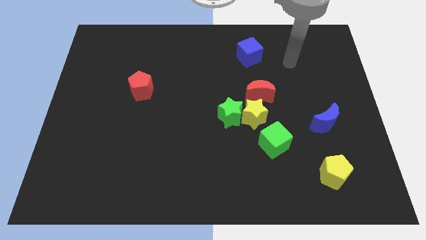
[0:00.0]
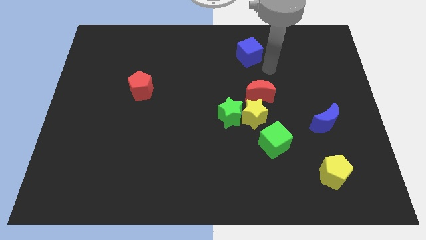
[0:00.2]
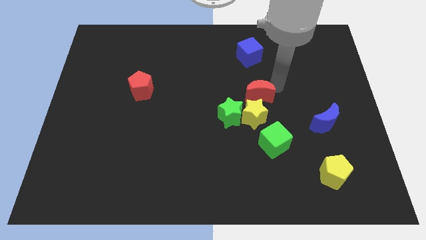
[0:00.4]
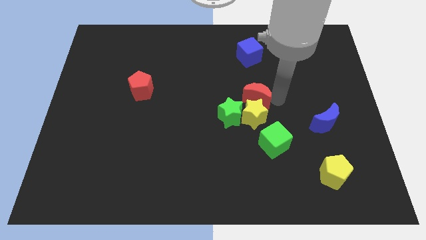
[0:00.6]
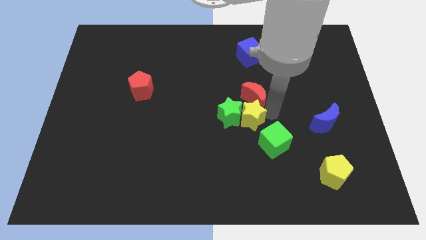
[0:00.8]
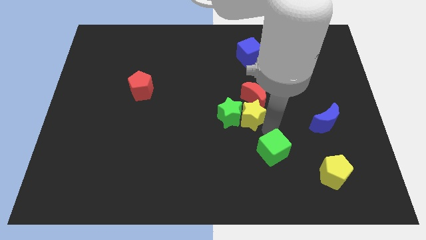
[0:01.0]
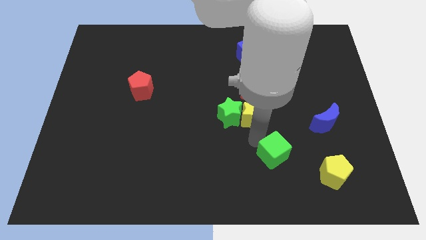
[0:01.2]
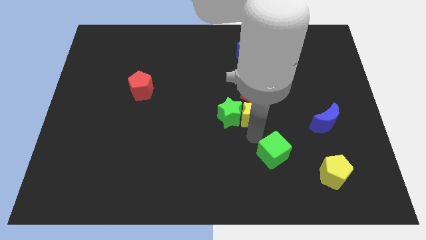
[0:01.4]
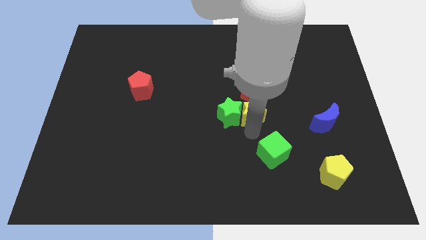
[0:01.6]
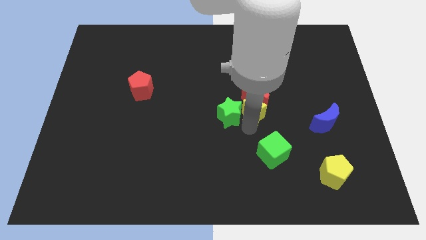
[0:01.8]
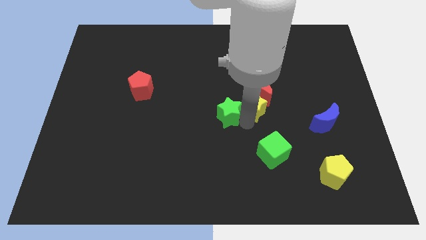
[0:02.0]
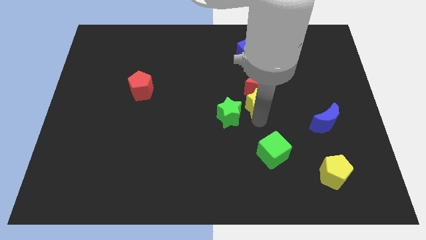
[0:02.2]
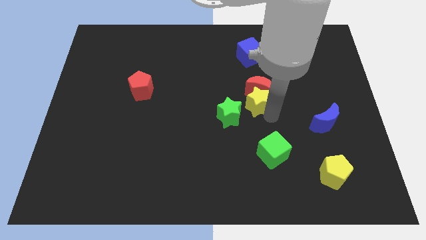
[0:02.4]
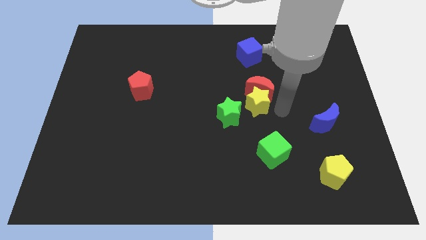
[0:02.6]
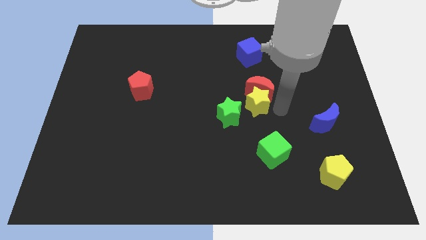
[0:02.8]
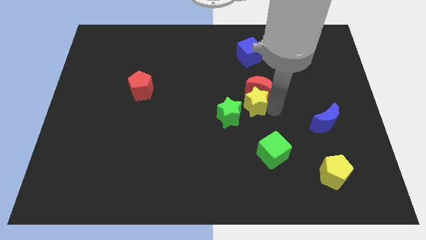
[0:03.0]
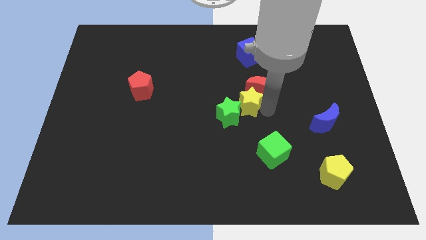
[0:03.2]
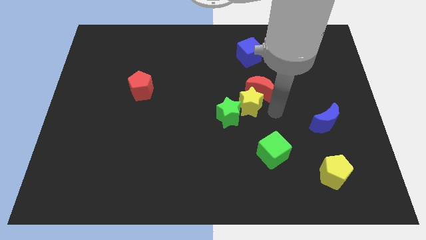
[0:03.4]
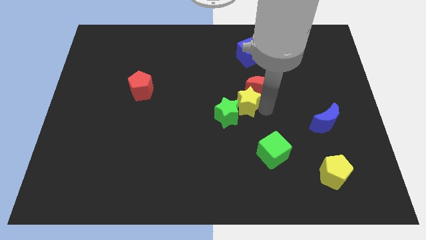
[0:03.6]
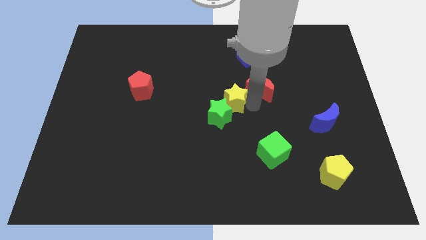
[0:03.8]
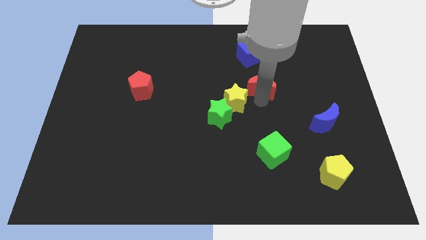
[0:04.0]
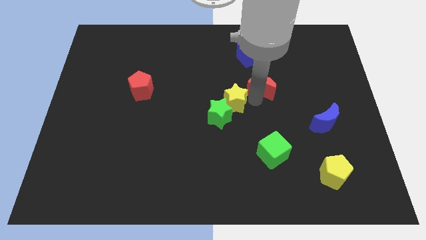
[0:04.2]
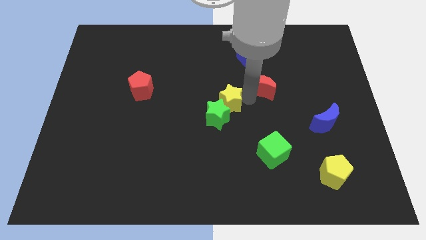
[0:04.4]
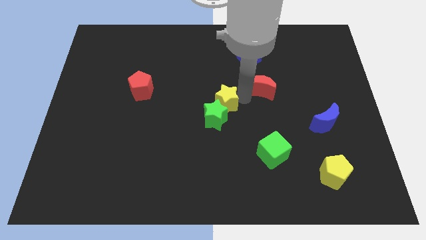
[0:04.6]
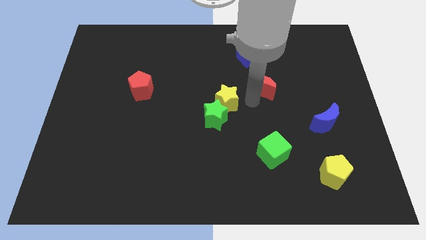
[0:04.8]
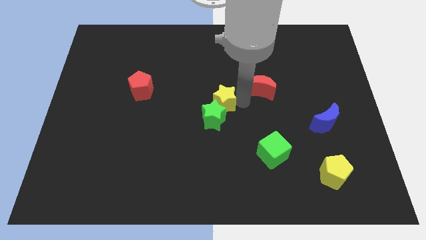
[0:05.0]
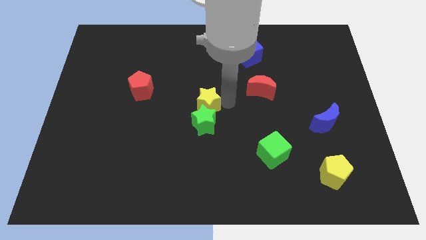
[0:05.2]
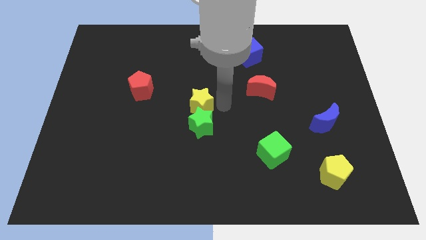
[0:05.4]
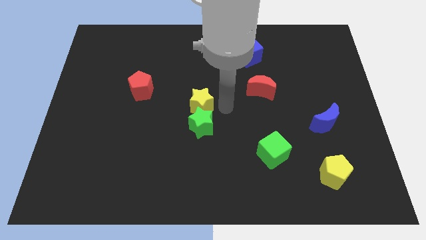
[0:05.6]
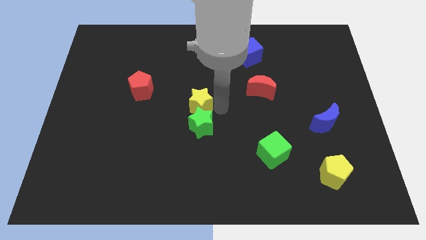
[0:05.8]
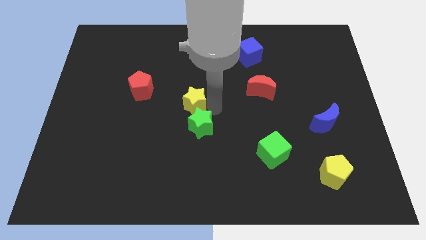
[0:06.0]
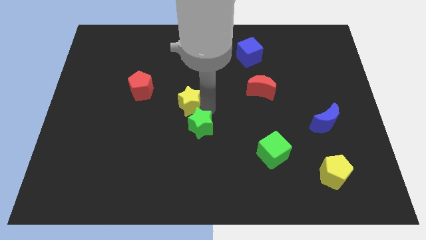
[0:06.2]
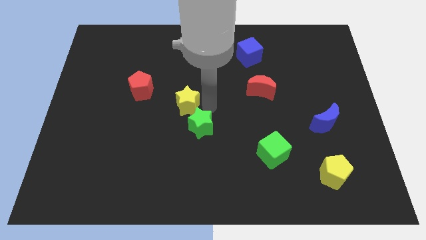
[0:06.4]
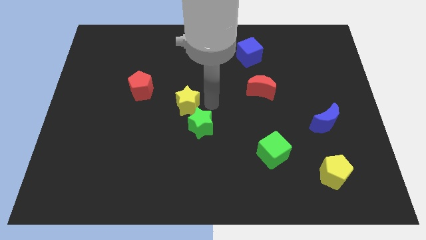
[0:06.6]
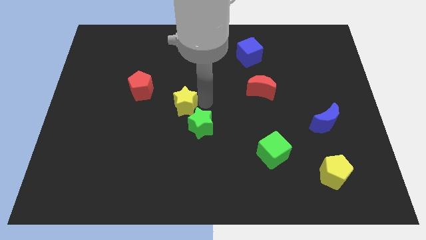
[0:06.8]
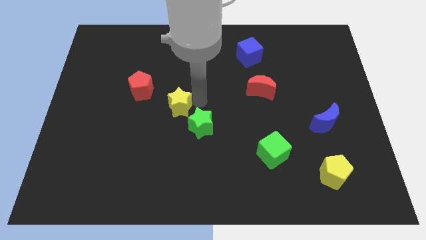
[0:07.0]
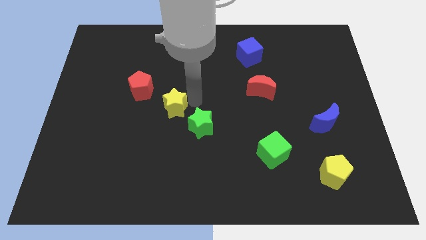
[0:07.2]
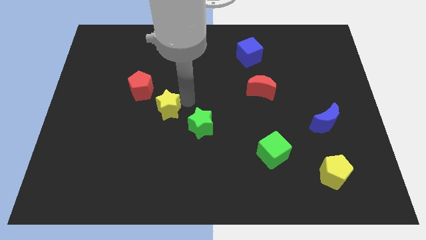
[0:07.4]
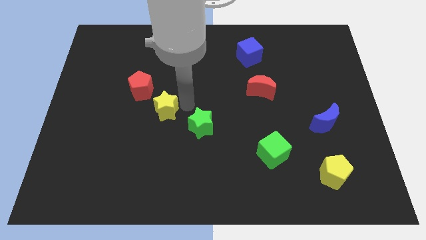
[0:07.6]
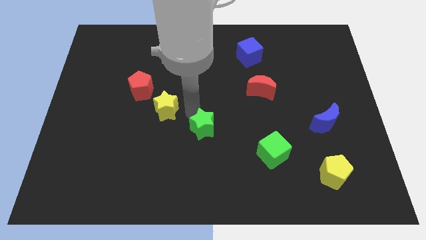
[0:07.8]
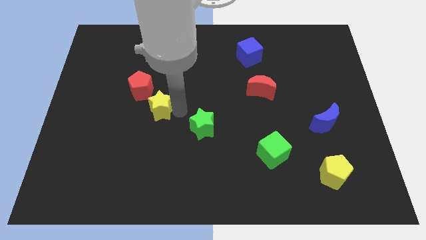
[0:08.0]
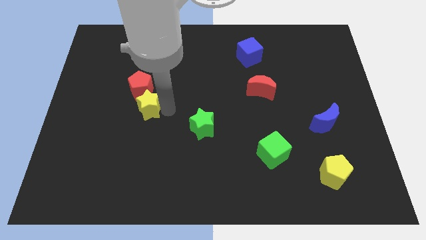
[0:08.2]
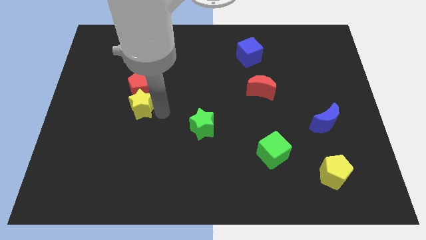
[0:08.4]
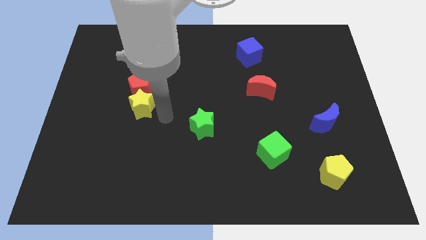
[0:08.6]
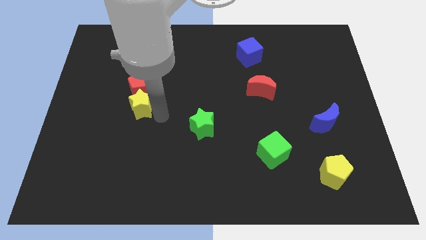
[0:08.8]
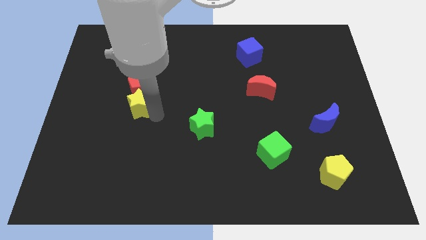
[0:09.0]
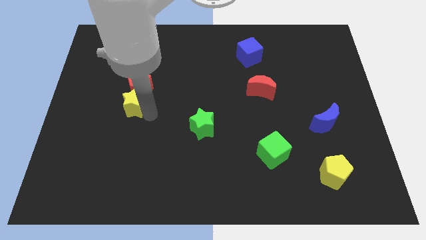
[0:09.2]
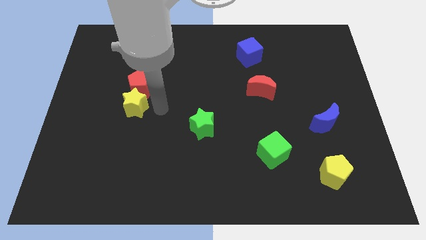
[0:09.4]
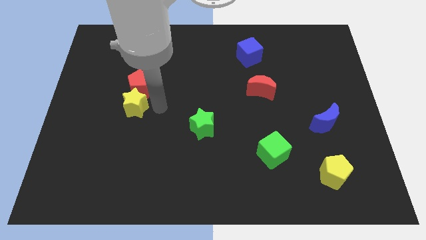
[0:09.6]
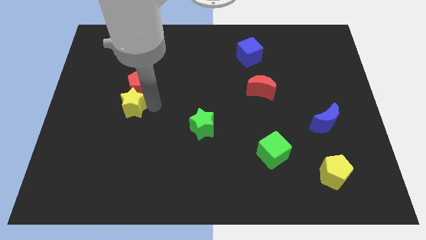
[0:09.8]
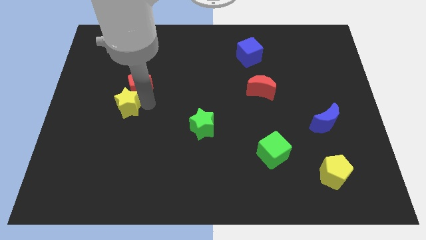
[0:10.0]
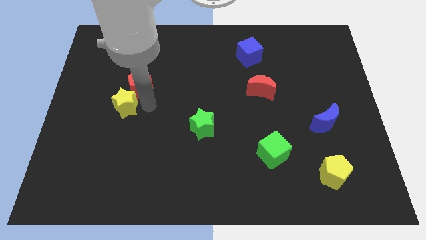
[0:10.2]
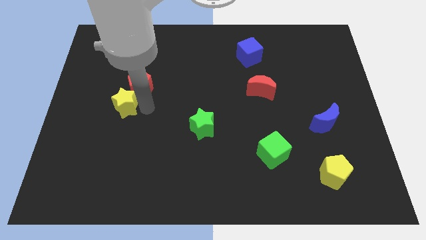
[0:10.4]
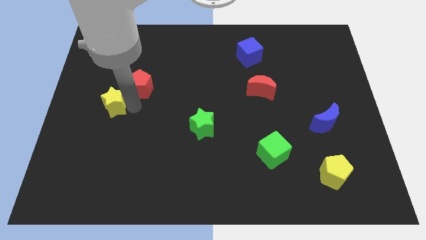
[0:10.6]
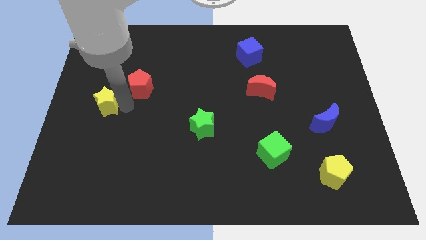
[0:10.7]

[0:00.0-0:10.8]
slide the yellow star to the center left
